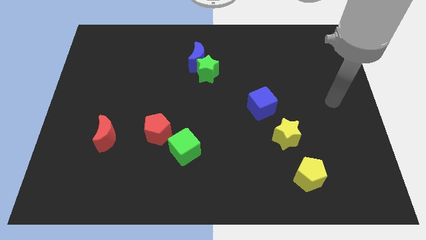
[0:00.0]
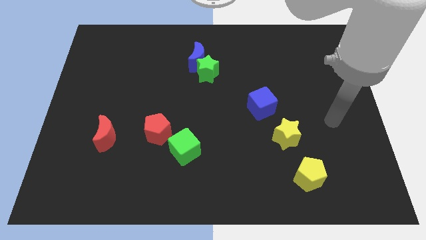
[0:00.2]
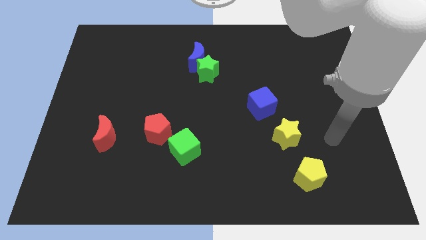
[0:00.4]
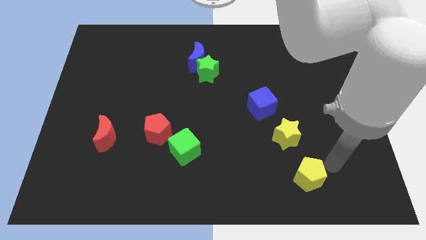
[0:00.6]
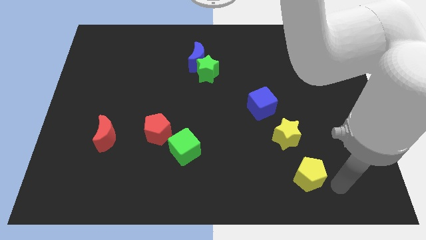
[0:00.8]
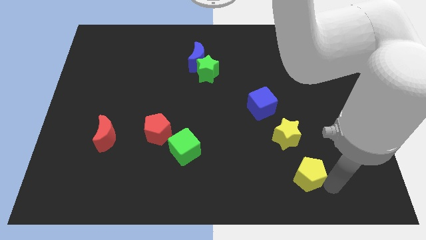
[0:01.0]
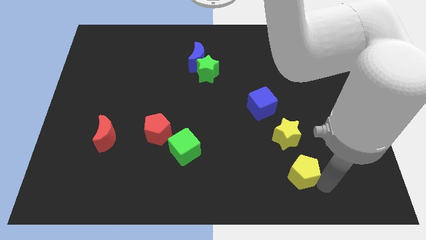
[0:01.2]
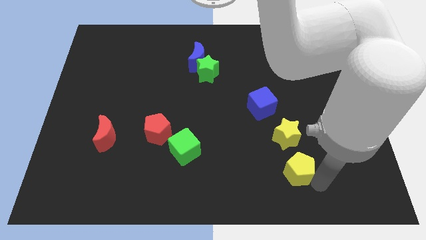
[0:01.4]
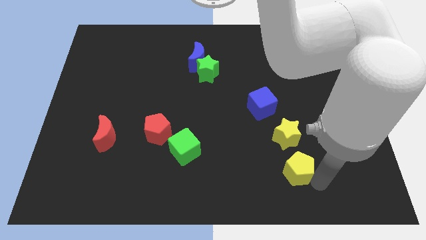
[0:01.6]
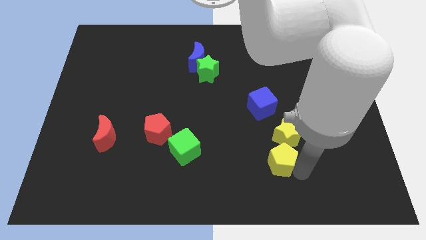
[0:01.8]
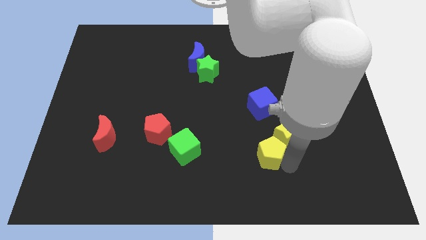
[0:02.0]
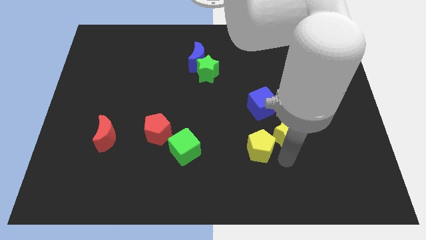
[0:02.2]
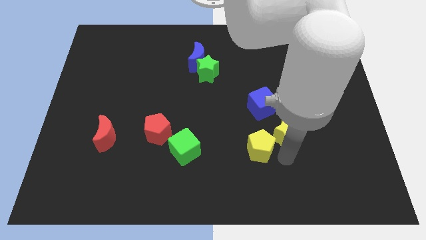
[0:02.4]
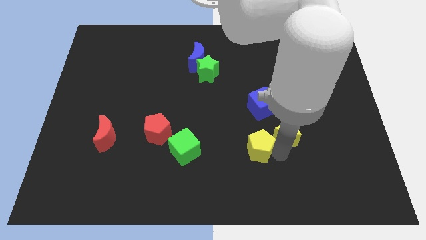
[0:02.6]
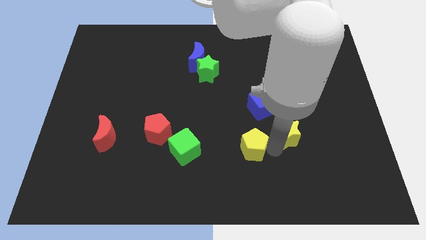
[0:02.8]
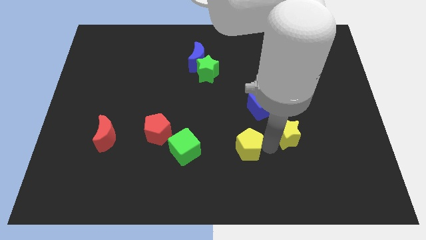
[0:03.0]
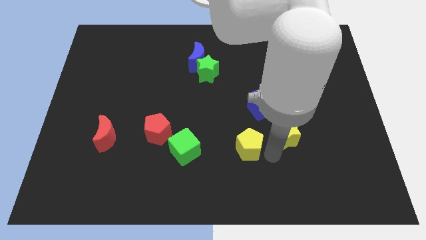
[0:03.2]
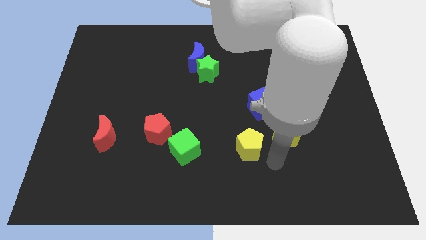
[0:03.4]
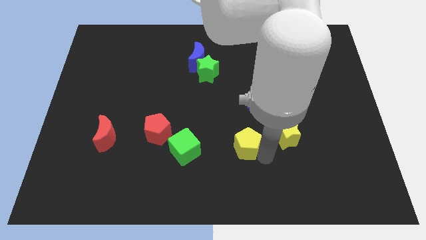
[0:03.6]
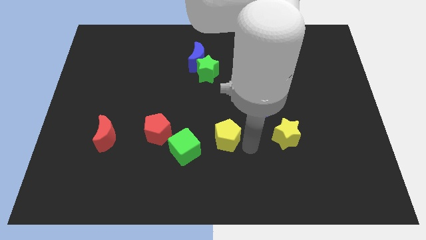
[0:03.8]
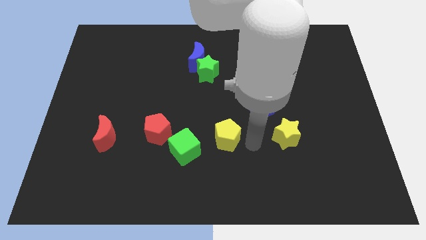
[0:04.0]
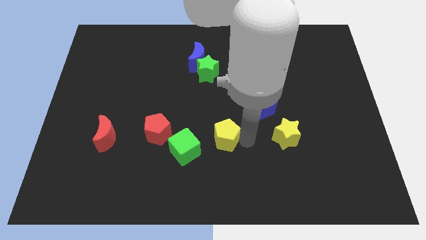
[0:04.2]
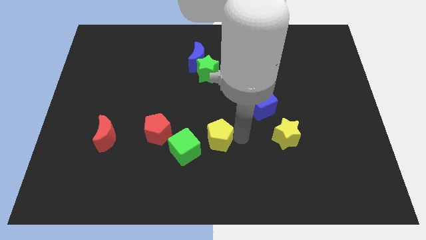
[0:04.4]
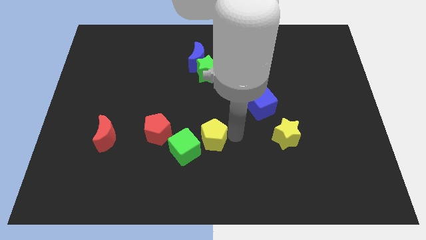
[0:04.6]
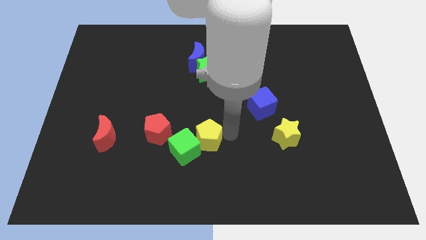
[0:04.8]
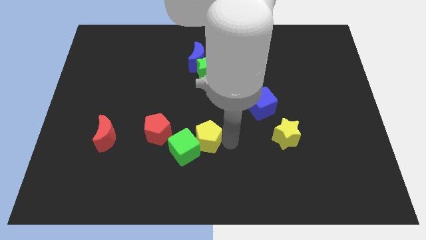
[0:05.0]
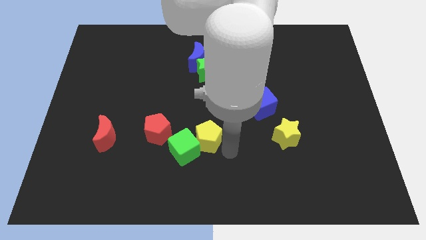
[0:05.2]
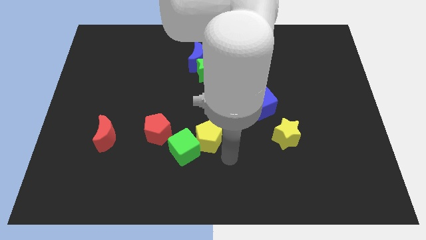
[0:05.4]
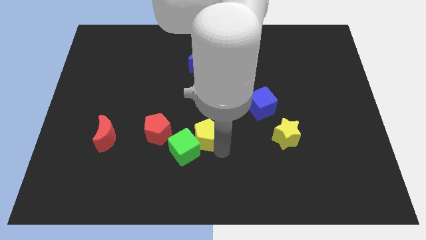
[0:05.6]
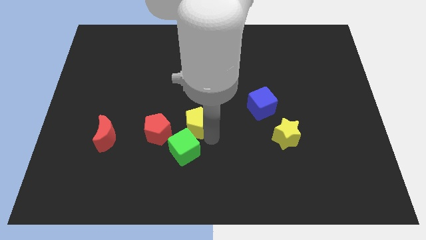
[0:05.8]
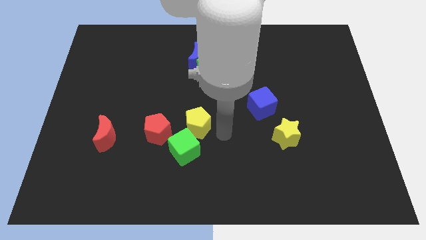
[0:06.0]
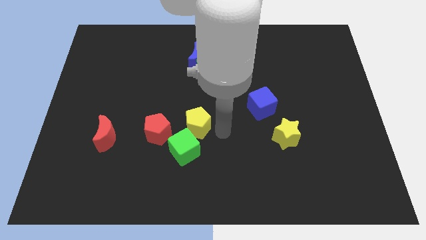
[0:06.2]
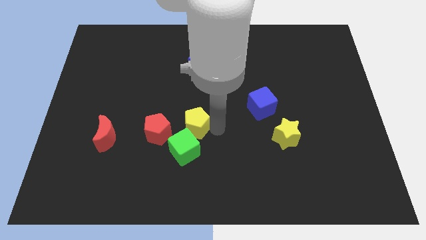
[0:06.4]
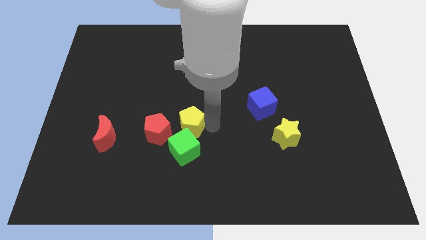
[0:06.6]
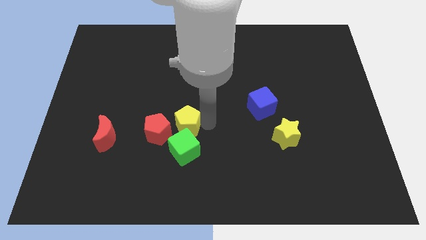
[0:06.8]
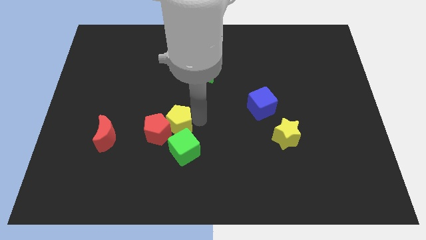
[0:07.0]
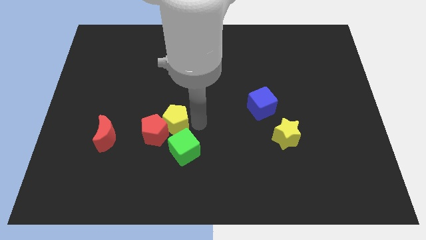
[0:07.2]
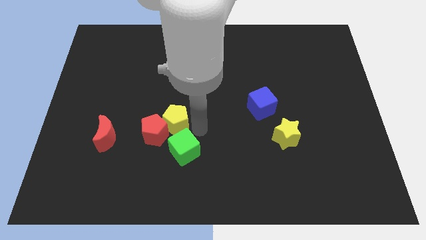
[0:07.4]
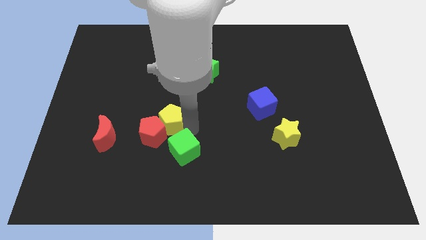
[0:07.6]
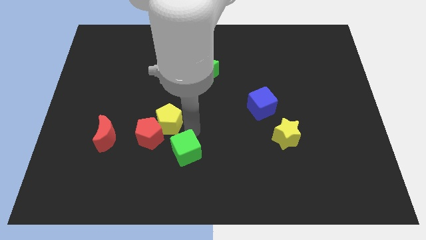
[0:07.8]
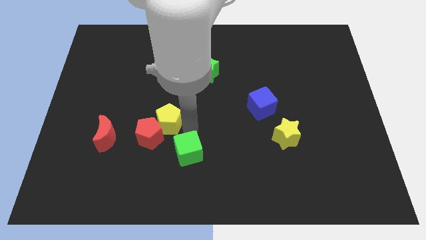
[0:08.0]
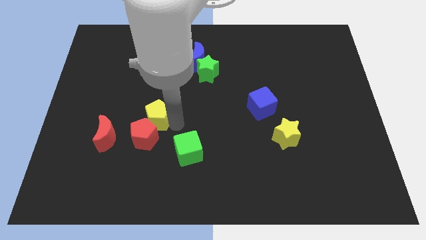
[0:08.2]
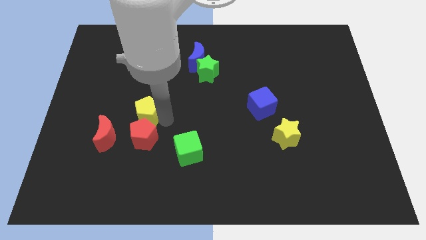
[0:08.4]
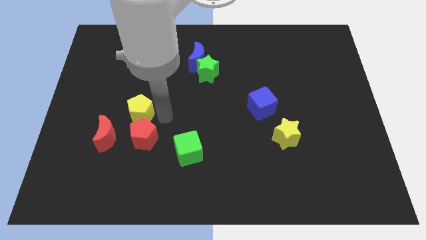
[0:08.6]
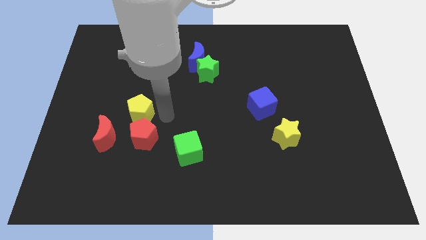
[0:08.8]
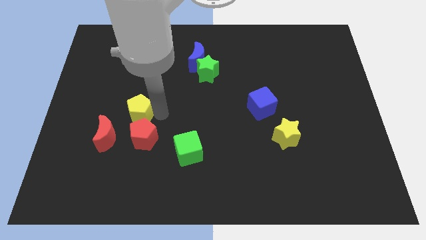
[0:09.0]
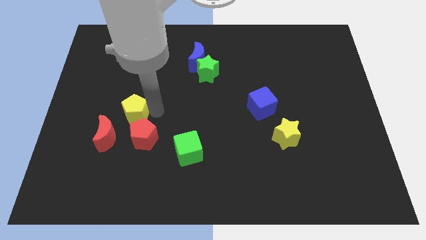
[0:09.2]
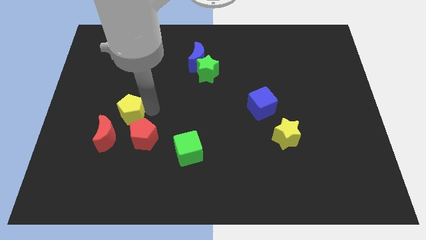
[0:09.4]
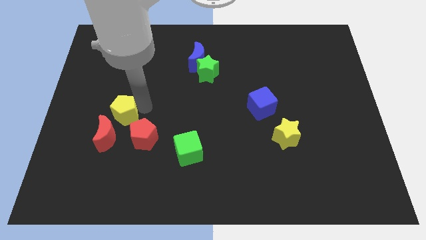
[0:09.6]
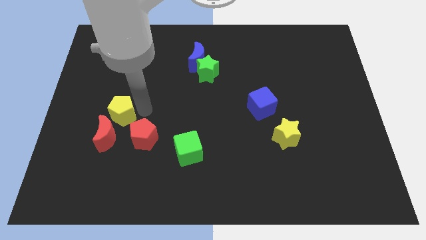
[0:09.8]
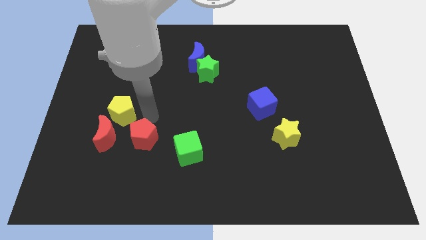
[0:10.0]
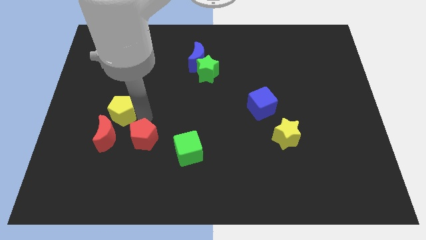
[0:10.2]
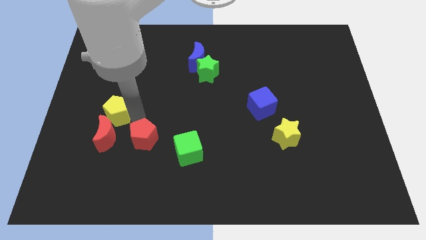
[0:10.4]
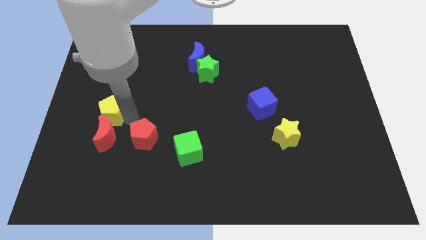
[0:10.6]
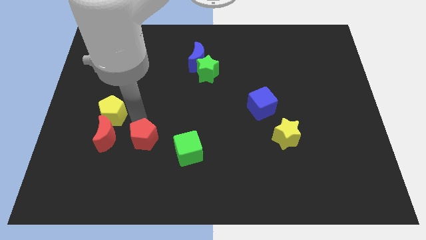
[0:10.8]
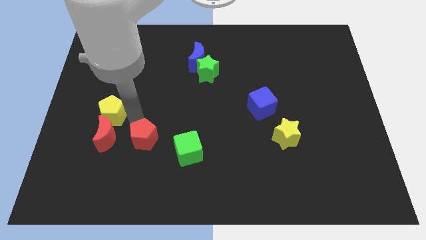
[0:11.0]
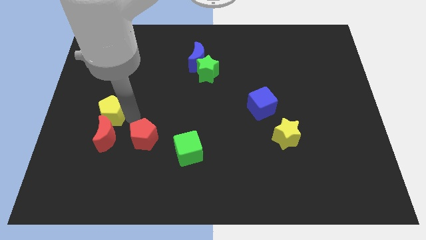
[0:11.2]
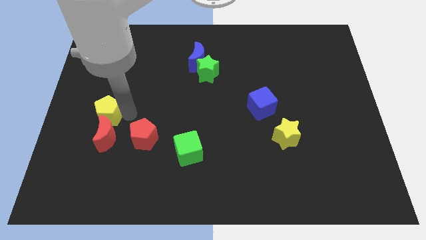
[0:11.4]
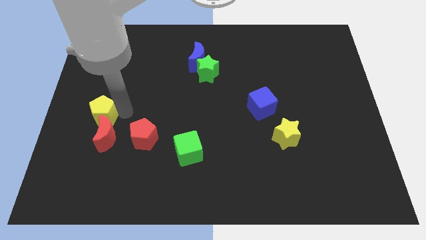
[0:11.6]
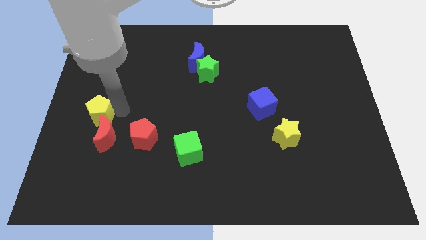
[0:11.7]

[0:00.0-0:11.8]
put the yellow pentagon to the center left

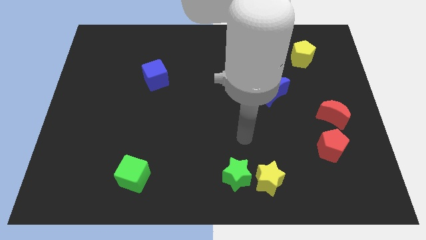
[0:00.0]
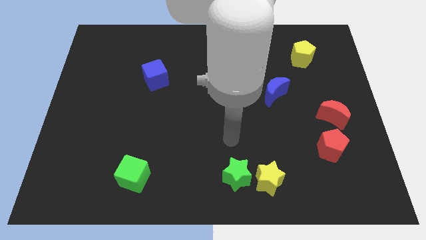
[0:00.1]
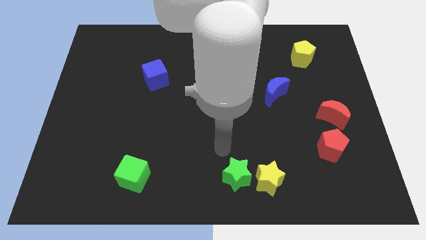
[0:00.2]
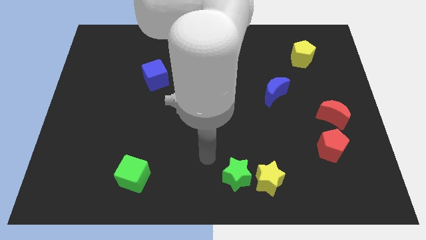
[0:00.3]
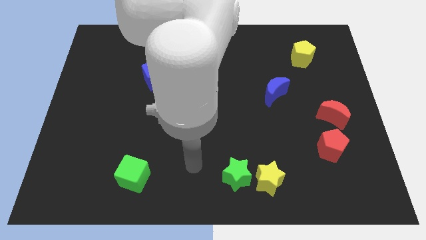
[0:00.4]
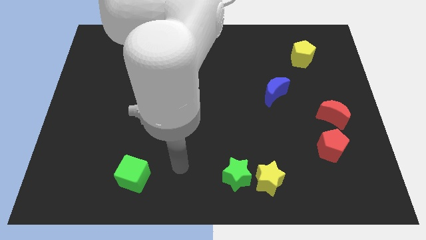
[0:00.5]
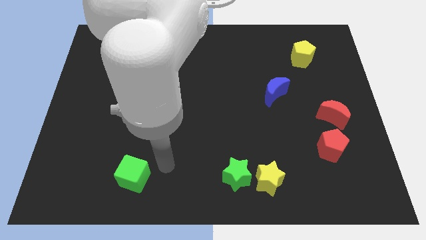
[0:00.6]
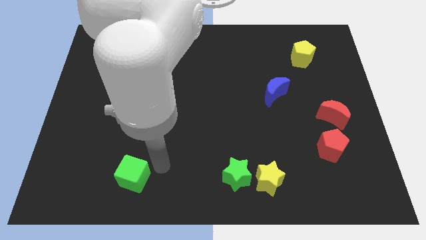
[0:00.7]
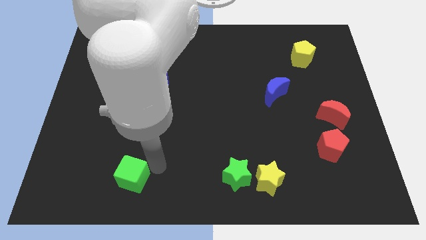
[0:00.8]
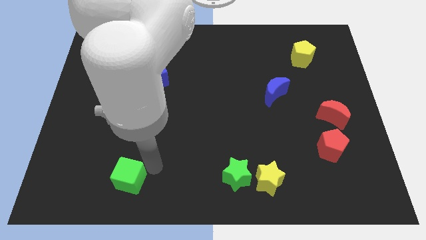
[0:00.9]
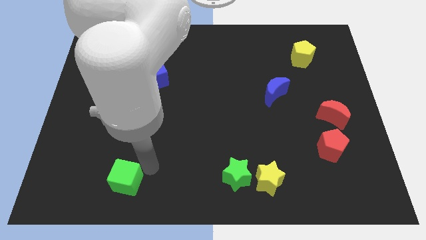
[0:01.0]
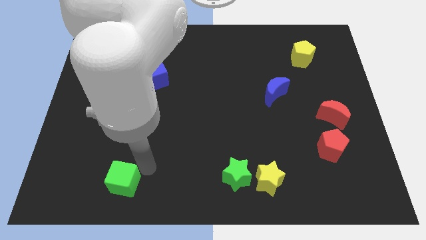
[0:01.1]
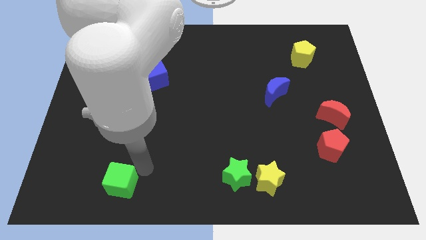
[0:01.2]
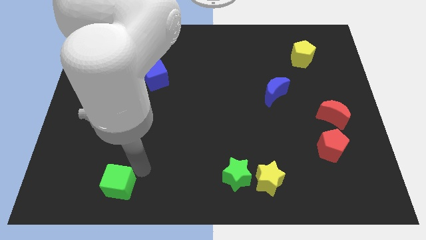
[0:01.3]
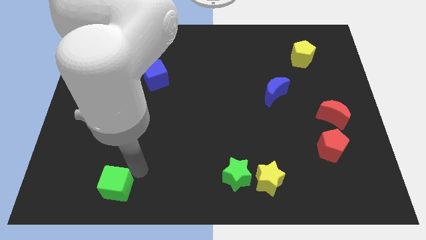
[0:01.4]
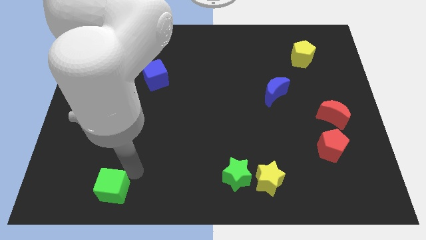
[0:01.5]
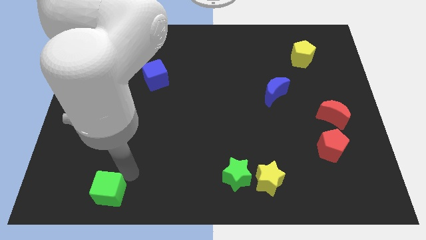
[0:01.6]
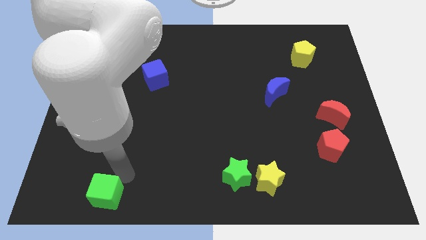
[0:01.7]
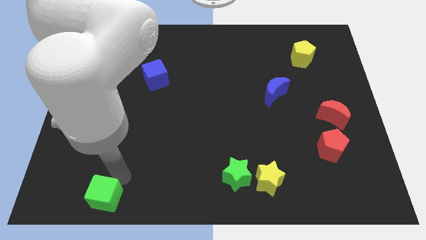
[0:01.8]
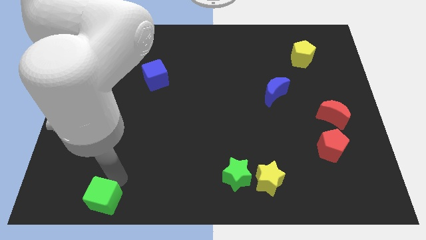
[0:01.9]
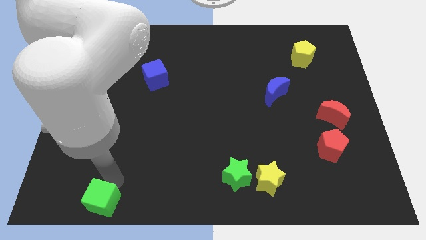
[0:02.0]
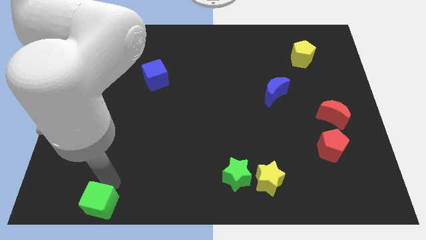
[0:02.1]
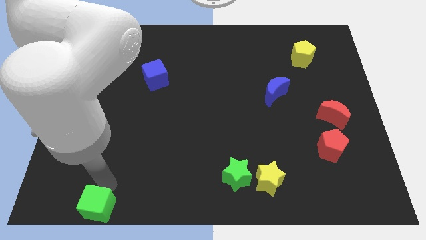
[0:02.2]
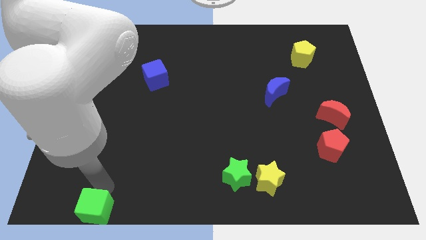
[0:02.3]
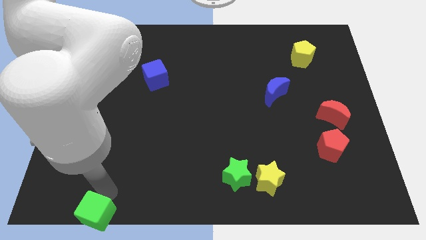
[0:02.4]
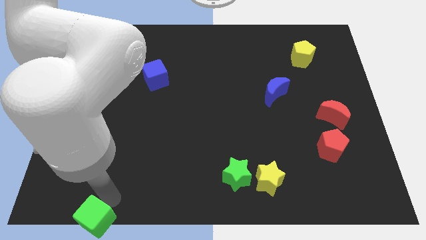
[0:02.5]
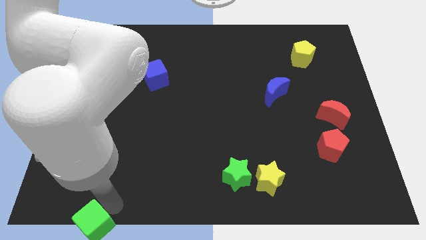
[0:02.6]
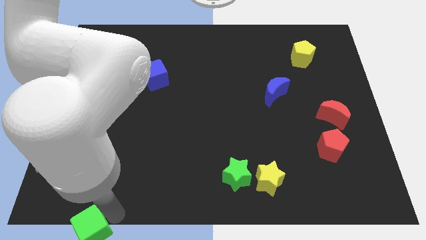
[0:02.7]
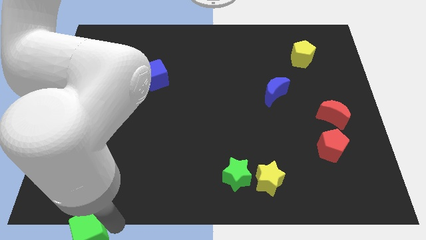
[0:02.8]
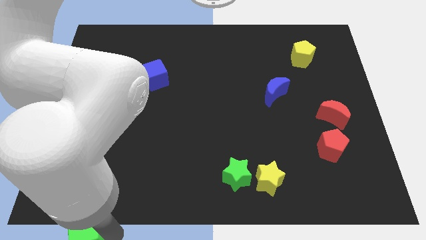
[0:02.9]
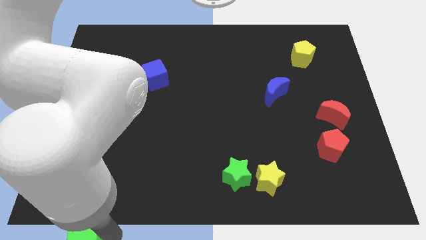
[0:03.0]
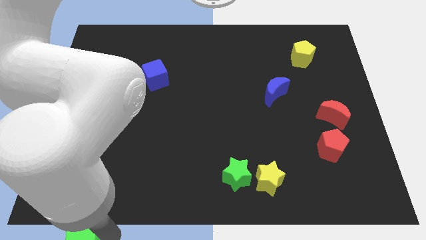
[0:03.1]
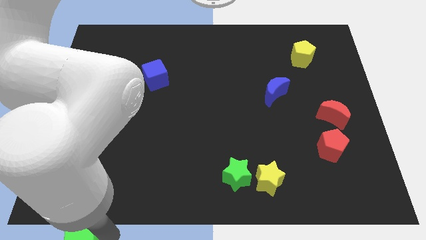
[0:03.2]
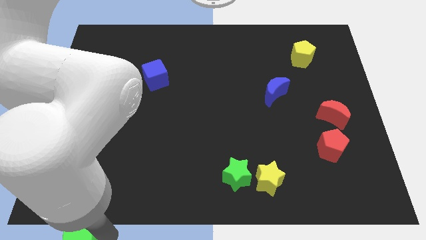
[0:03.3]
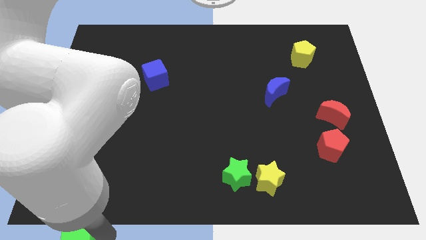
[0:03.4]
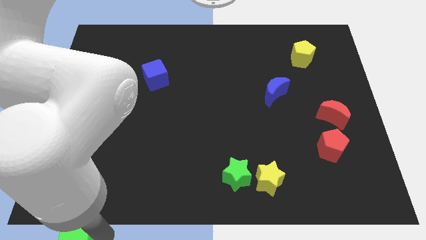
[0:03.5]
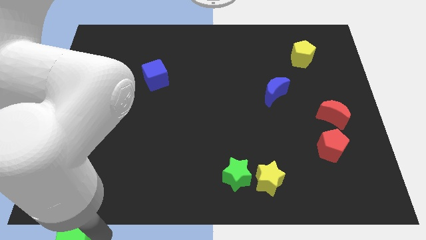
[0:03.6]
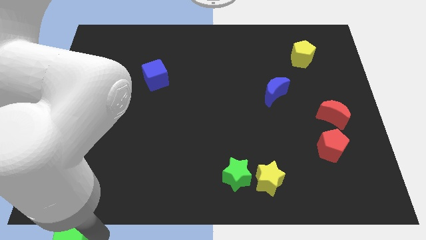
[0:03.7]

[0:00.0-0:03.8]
push the green cube to the bottom left corner
